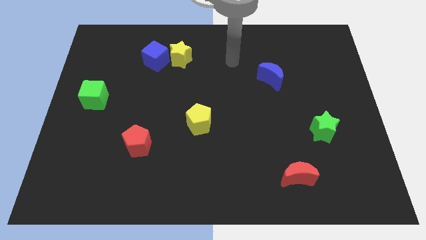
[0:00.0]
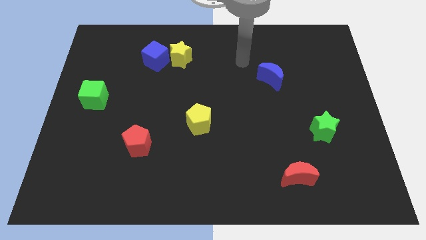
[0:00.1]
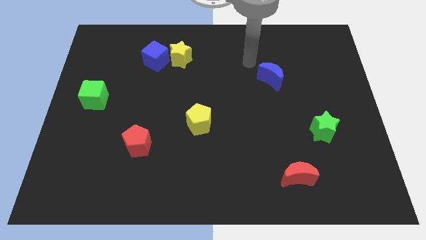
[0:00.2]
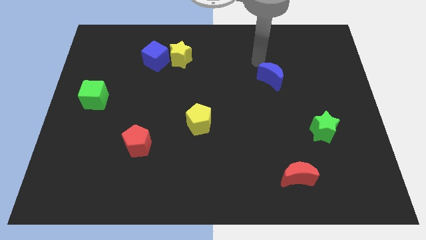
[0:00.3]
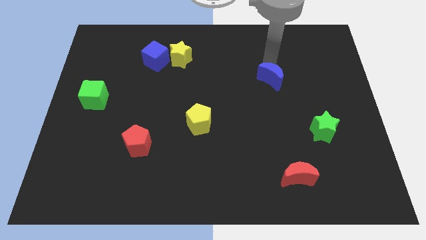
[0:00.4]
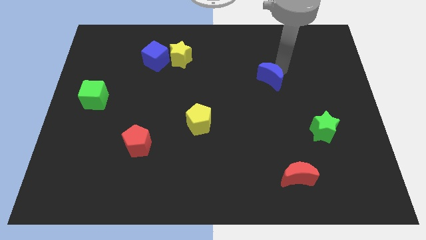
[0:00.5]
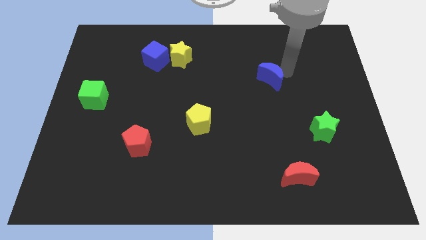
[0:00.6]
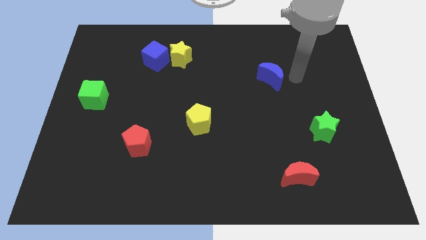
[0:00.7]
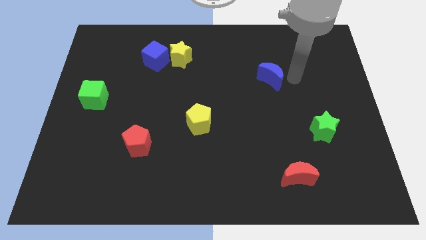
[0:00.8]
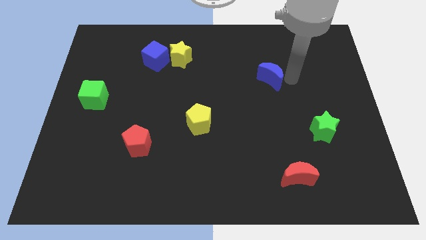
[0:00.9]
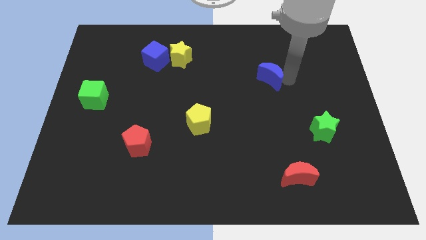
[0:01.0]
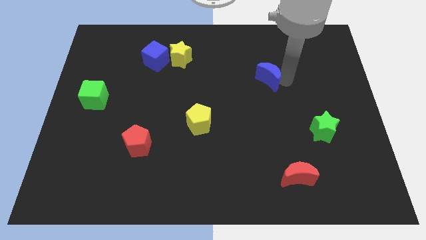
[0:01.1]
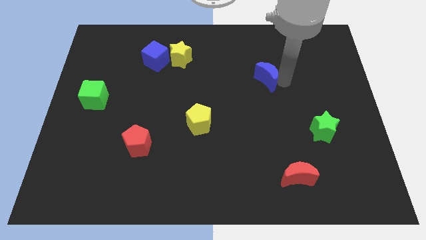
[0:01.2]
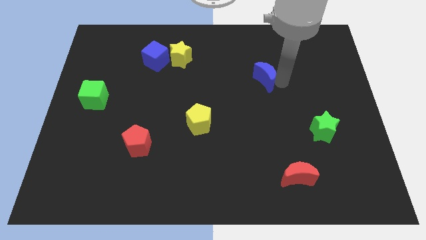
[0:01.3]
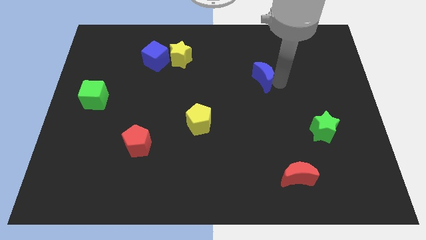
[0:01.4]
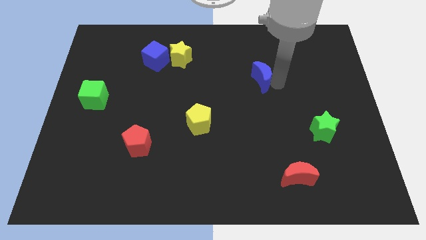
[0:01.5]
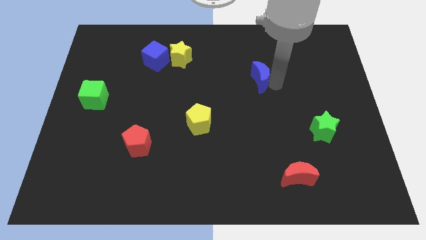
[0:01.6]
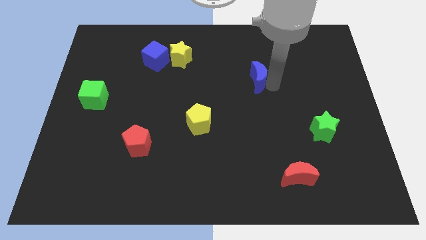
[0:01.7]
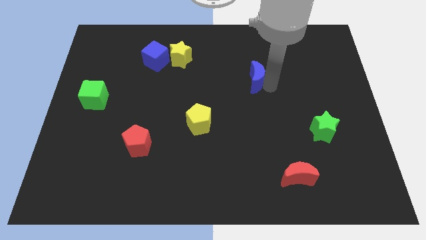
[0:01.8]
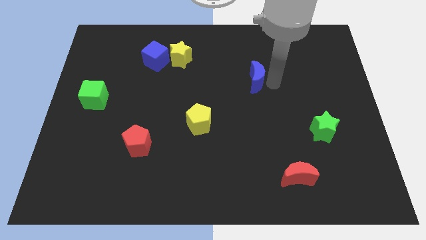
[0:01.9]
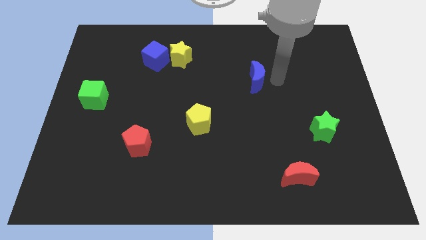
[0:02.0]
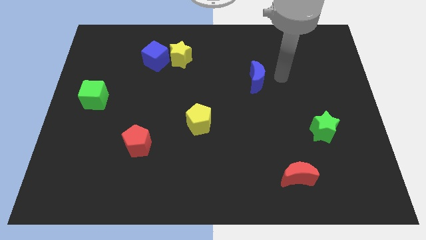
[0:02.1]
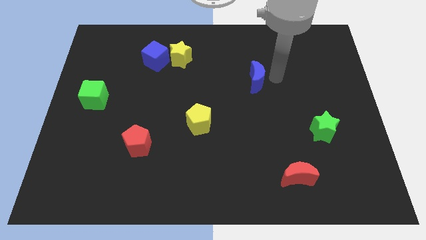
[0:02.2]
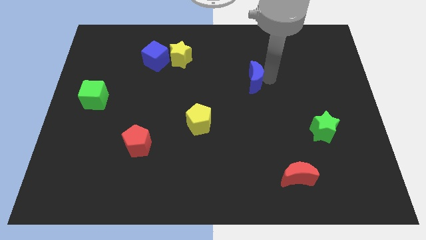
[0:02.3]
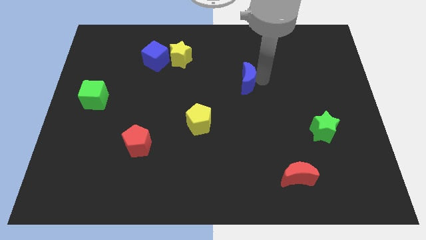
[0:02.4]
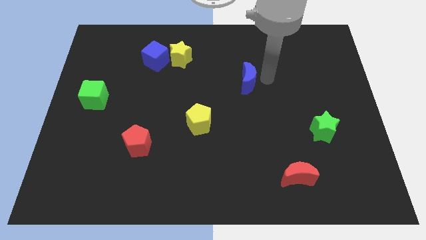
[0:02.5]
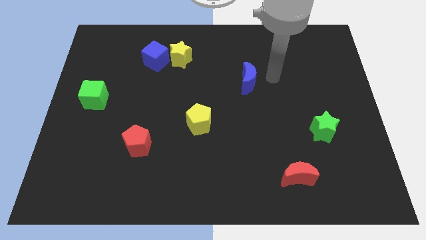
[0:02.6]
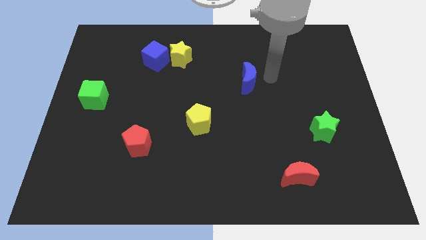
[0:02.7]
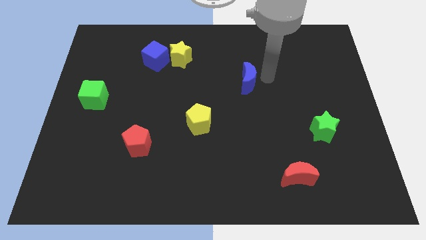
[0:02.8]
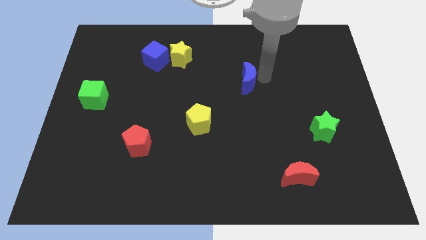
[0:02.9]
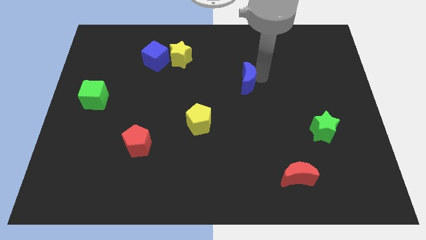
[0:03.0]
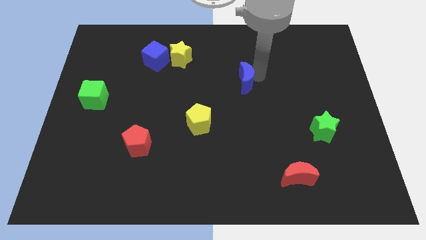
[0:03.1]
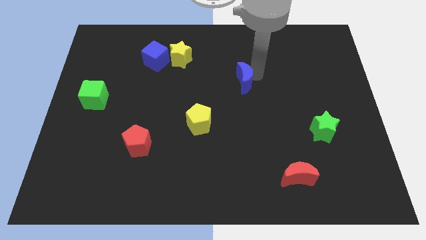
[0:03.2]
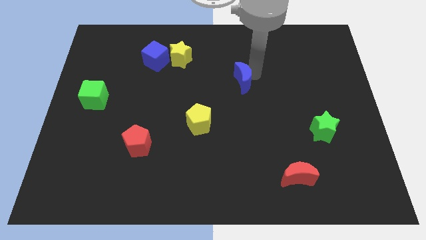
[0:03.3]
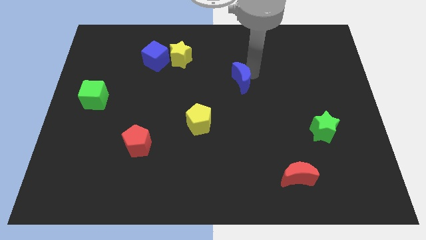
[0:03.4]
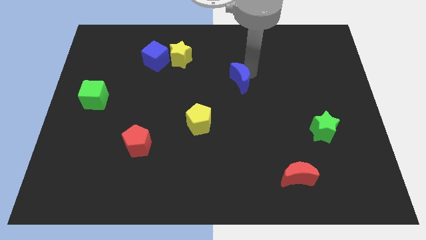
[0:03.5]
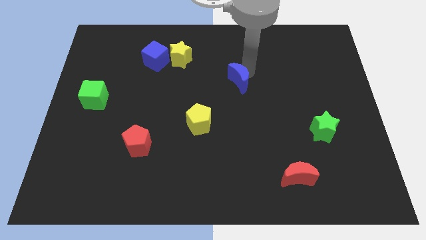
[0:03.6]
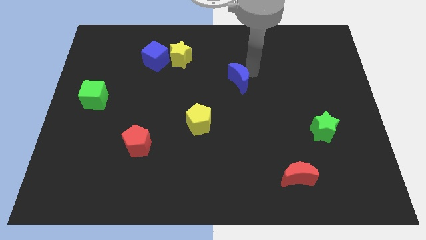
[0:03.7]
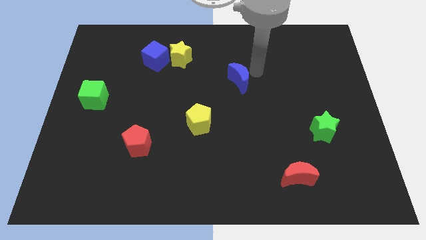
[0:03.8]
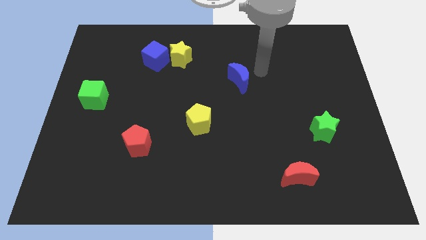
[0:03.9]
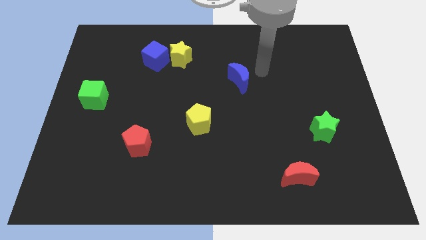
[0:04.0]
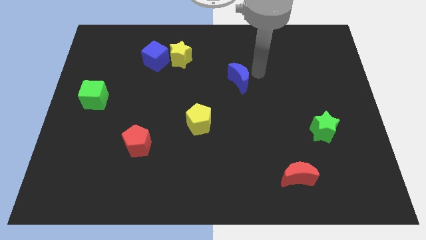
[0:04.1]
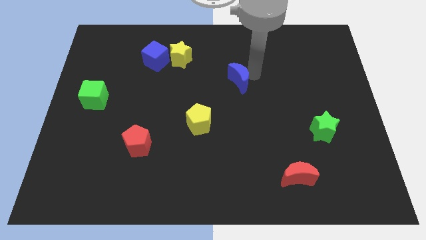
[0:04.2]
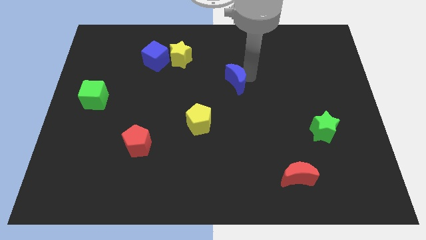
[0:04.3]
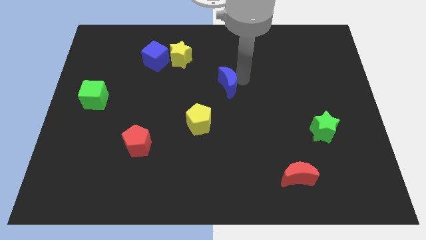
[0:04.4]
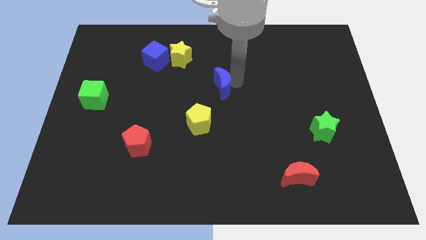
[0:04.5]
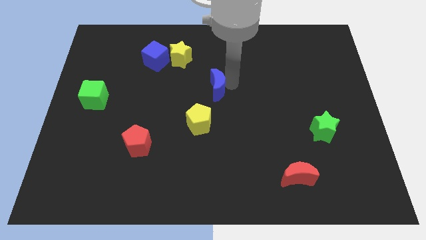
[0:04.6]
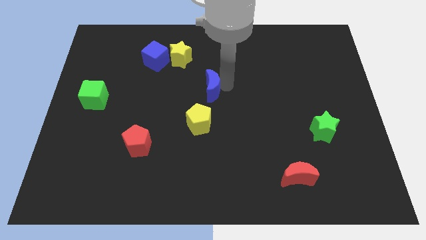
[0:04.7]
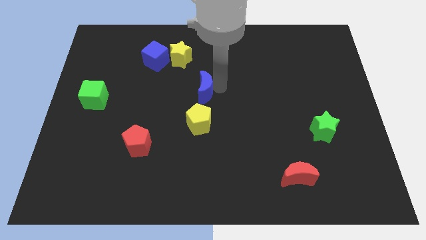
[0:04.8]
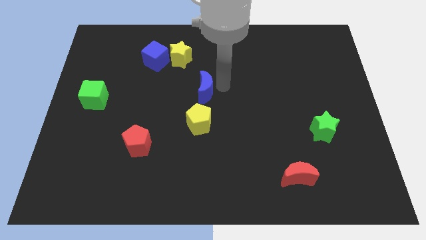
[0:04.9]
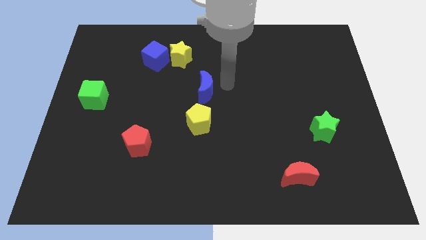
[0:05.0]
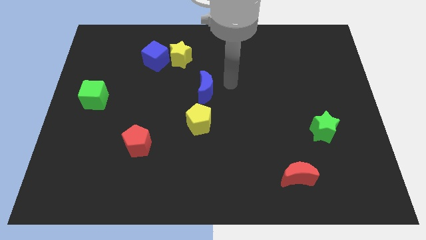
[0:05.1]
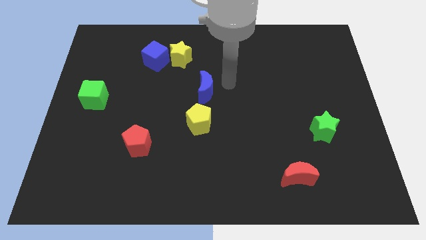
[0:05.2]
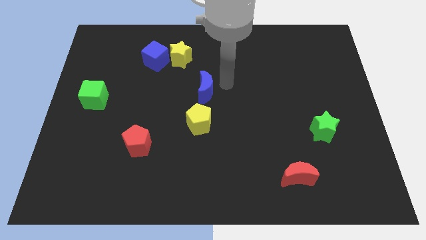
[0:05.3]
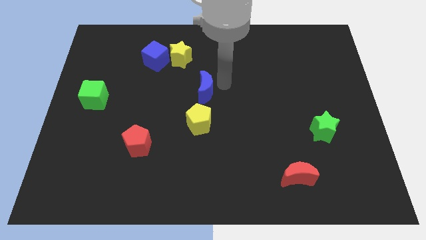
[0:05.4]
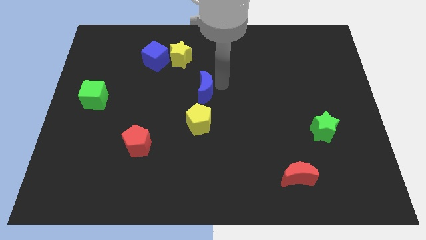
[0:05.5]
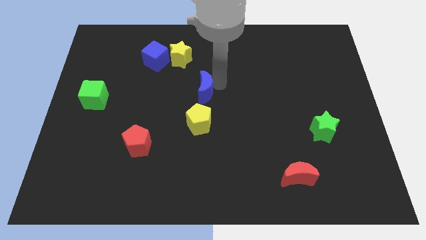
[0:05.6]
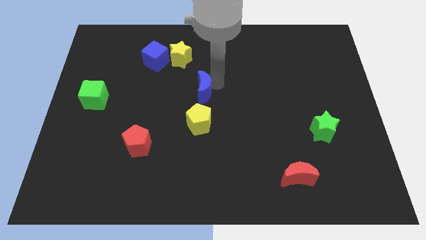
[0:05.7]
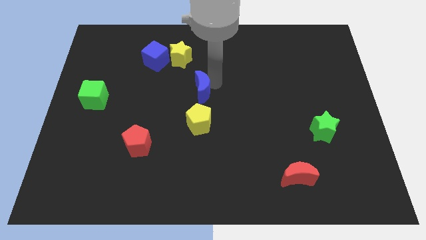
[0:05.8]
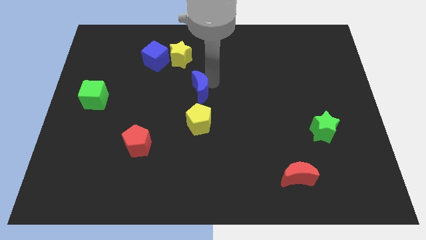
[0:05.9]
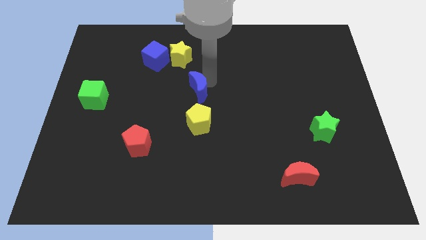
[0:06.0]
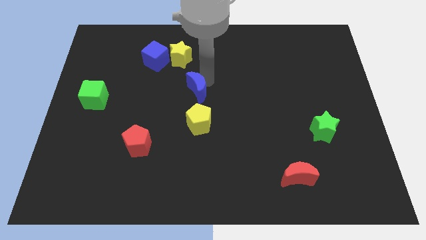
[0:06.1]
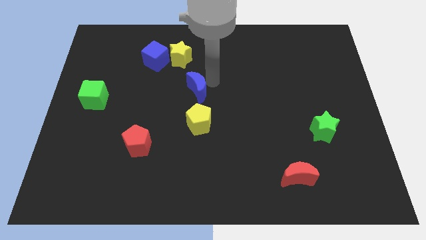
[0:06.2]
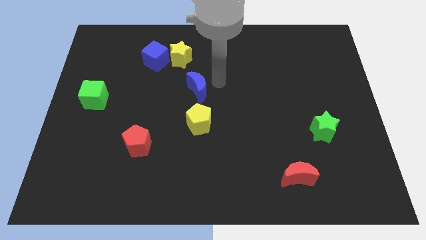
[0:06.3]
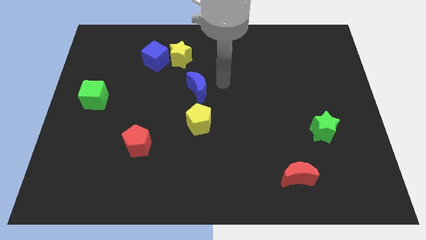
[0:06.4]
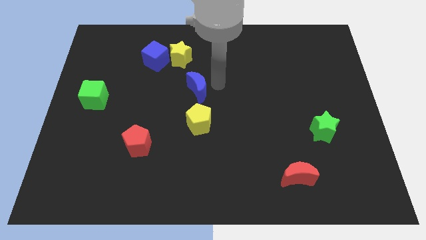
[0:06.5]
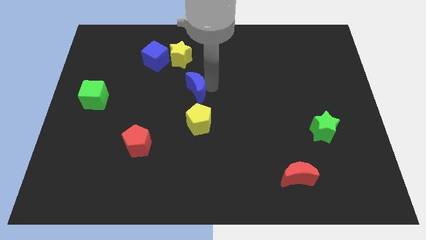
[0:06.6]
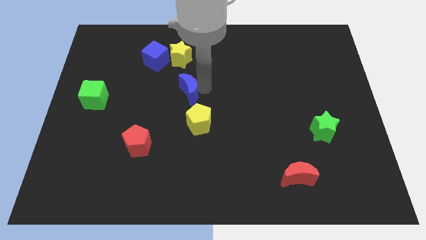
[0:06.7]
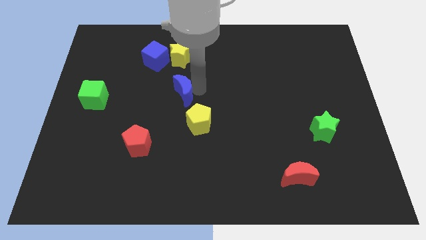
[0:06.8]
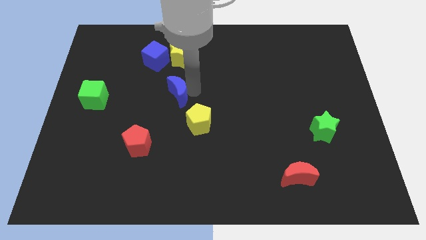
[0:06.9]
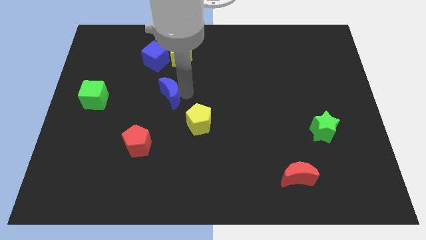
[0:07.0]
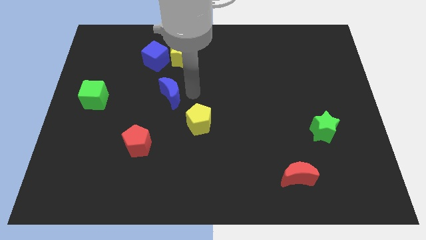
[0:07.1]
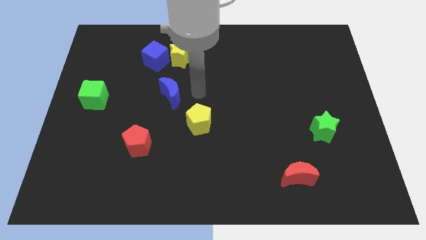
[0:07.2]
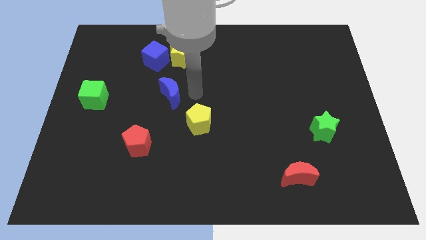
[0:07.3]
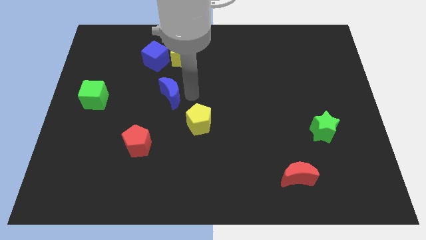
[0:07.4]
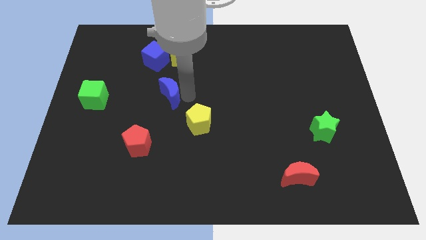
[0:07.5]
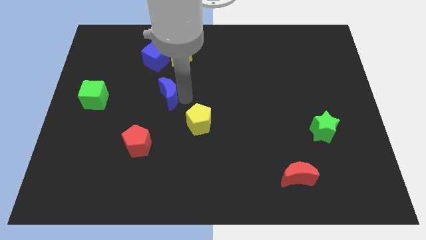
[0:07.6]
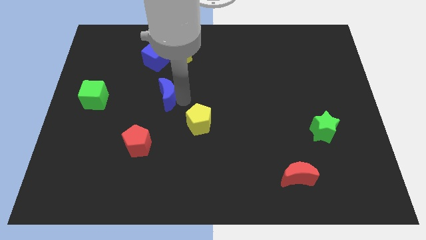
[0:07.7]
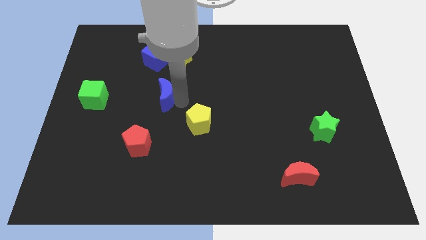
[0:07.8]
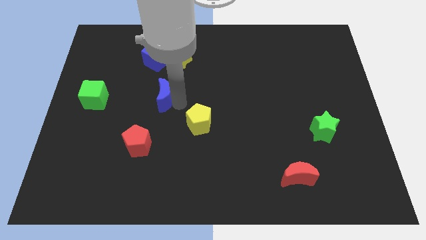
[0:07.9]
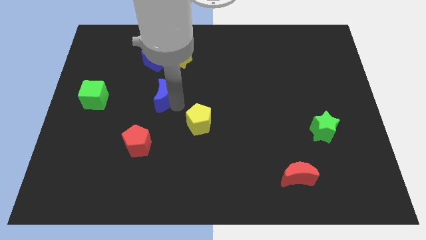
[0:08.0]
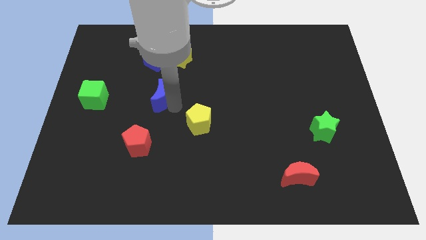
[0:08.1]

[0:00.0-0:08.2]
slide the blue moon to the right side of the green cube
